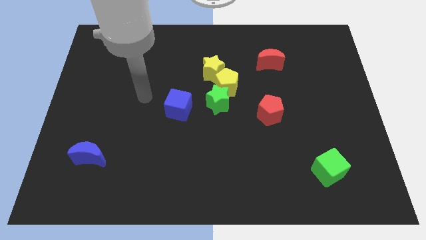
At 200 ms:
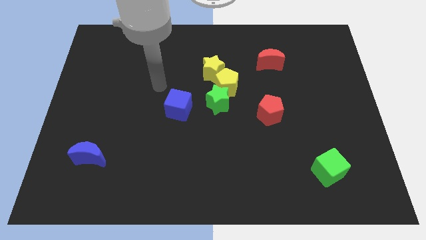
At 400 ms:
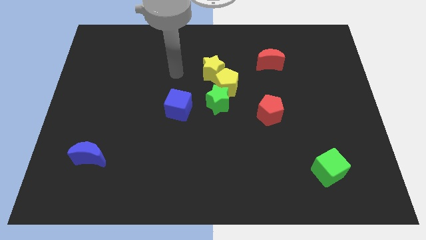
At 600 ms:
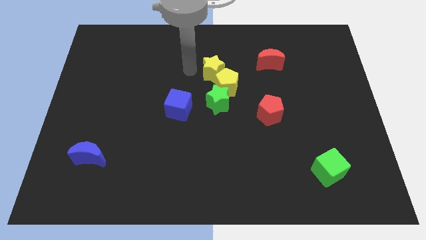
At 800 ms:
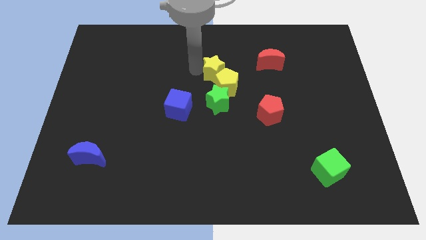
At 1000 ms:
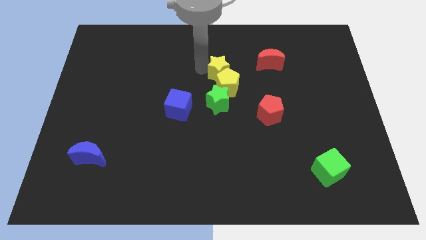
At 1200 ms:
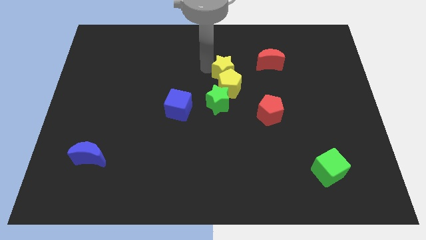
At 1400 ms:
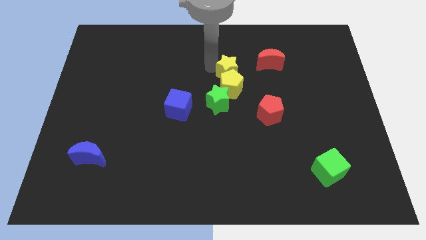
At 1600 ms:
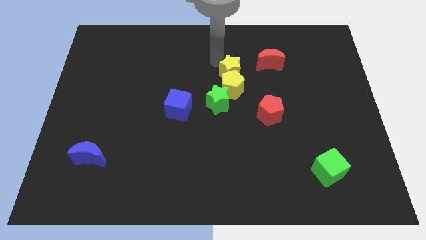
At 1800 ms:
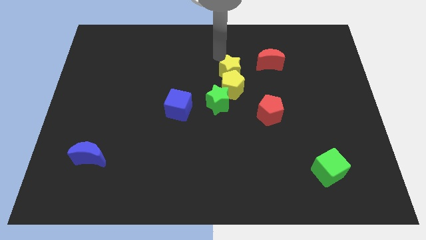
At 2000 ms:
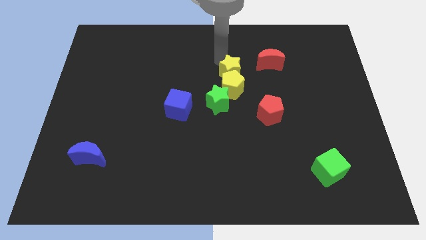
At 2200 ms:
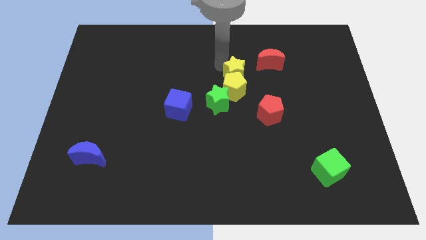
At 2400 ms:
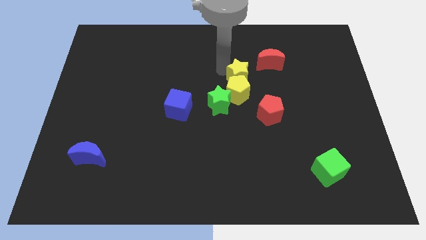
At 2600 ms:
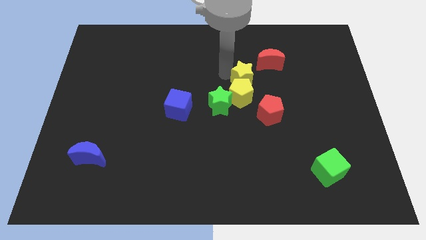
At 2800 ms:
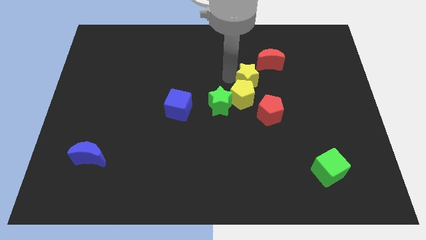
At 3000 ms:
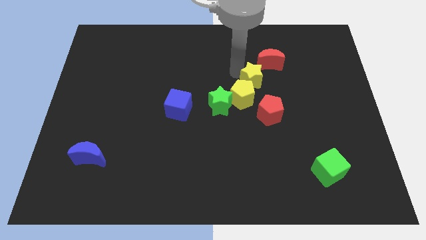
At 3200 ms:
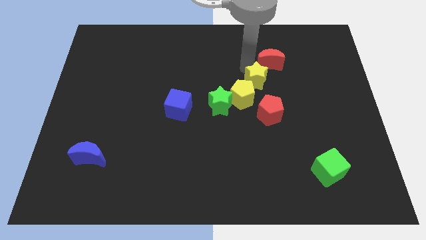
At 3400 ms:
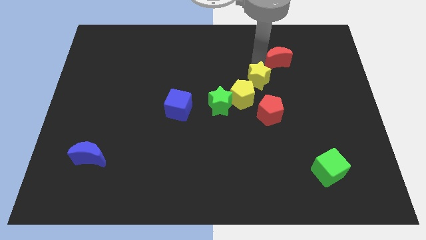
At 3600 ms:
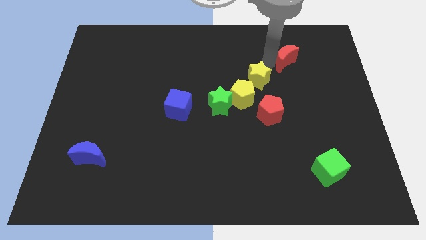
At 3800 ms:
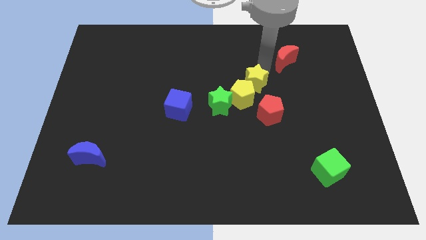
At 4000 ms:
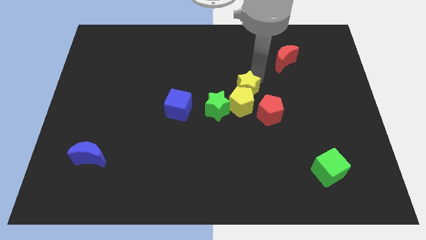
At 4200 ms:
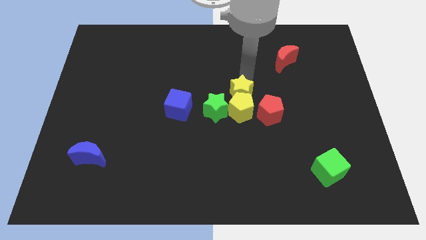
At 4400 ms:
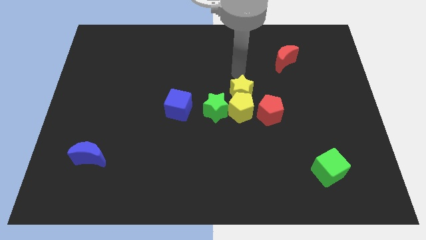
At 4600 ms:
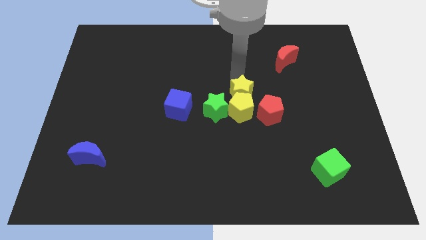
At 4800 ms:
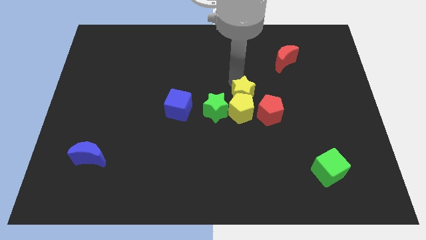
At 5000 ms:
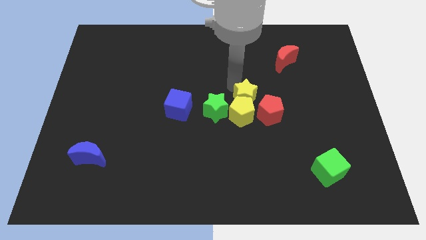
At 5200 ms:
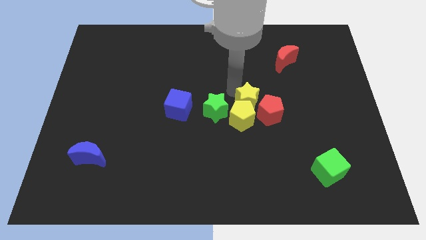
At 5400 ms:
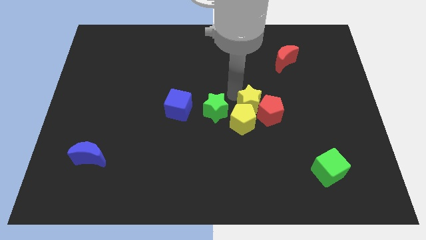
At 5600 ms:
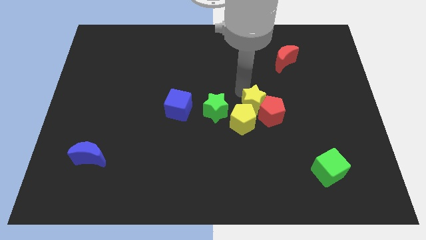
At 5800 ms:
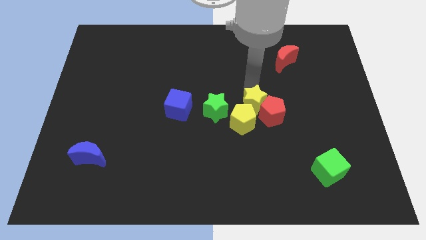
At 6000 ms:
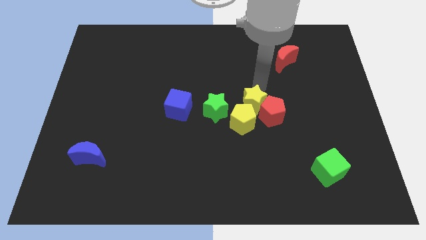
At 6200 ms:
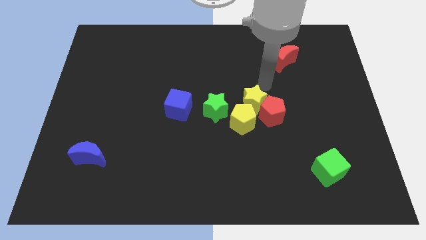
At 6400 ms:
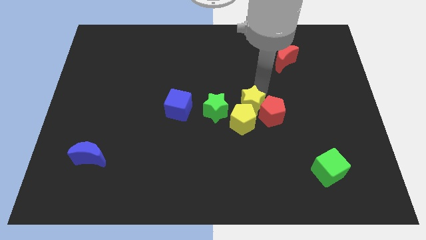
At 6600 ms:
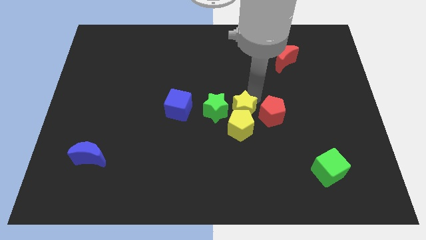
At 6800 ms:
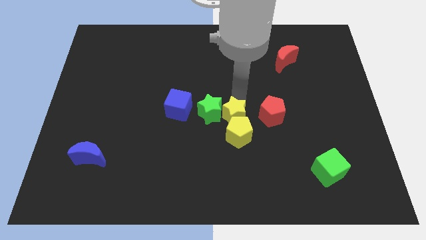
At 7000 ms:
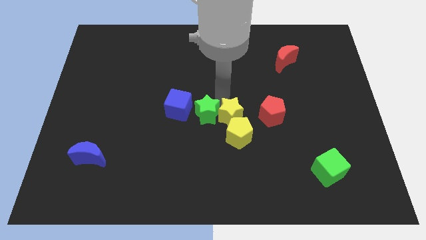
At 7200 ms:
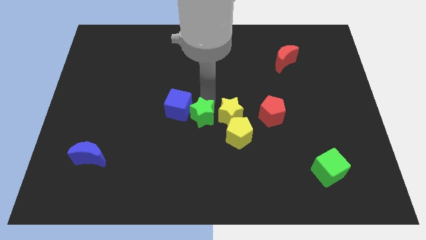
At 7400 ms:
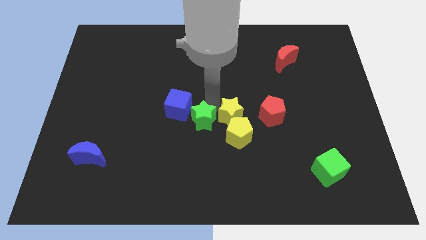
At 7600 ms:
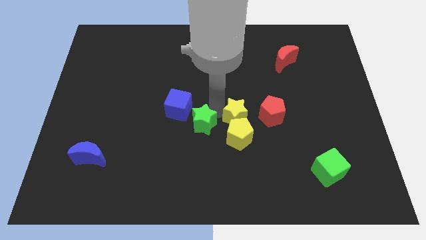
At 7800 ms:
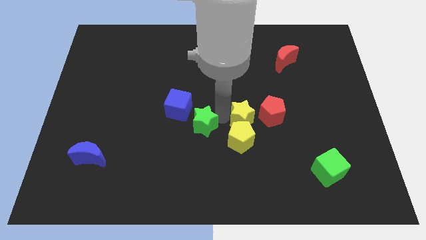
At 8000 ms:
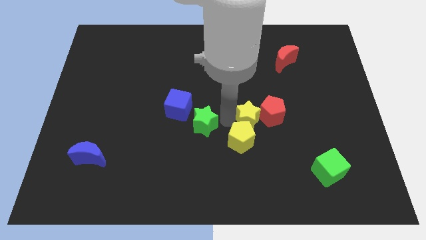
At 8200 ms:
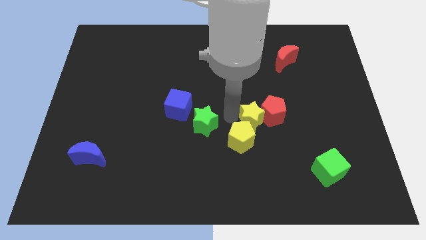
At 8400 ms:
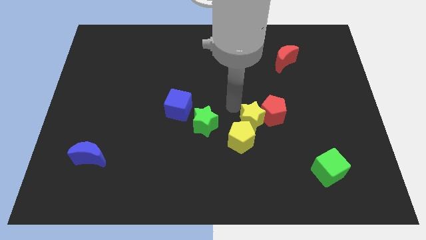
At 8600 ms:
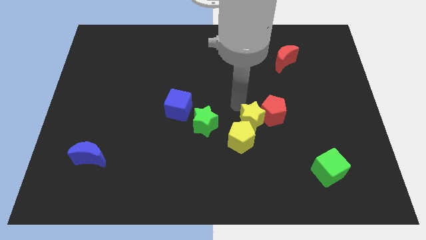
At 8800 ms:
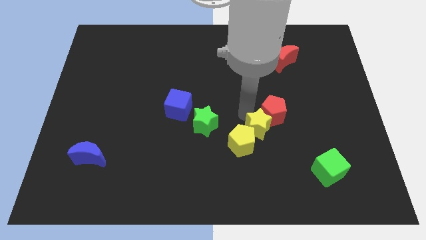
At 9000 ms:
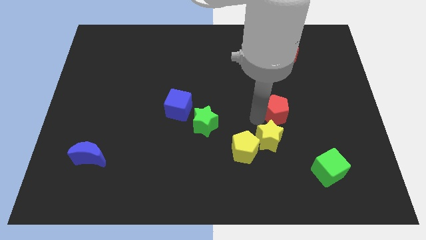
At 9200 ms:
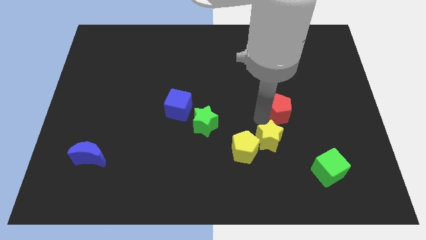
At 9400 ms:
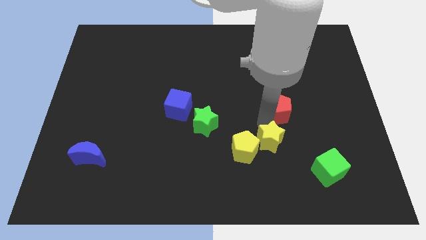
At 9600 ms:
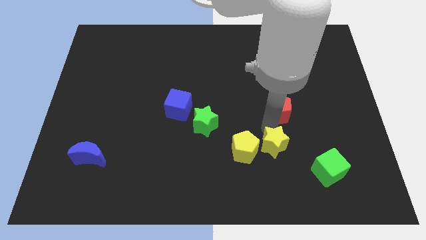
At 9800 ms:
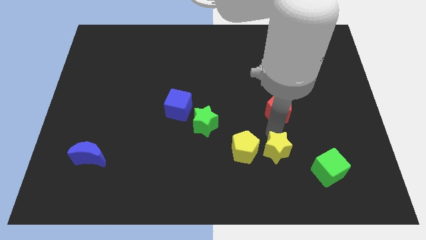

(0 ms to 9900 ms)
slide the yellow star to the left side of the green cube

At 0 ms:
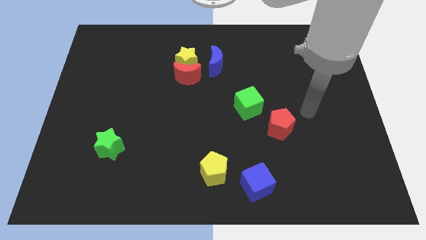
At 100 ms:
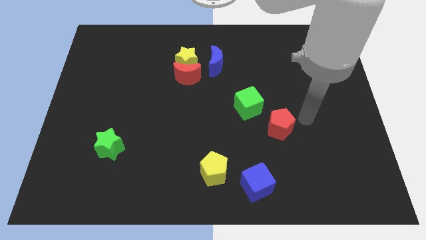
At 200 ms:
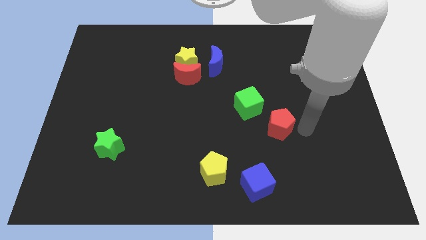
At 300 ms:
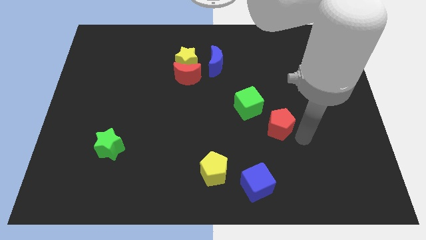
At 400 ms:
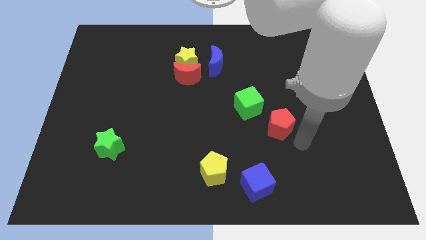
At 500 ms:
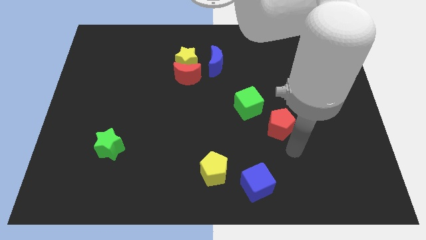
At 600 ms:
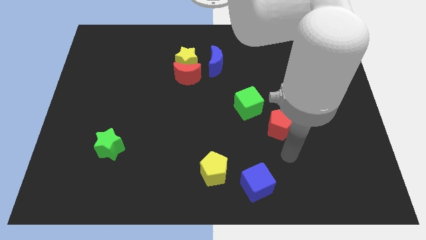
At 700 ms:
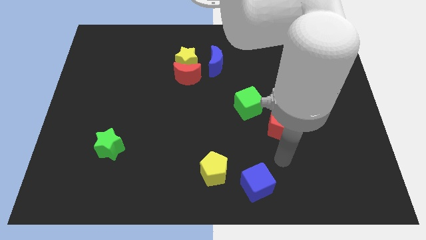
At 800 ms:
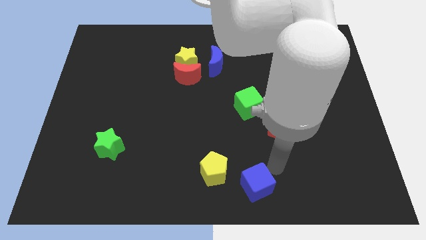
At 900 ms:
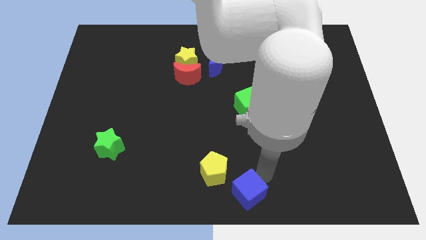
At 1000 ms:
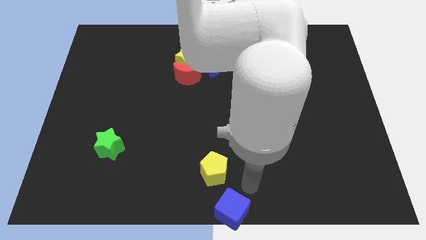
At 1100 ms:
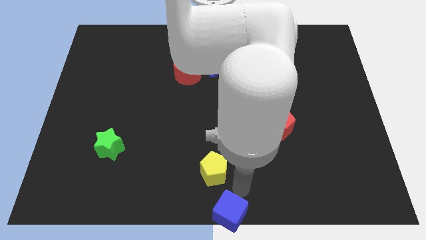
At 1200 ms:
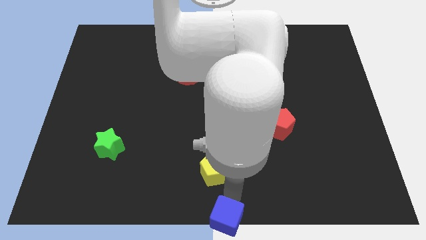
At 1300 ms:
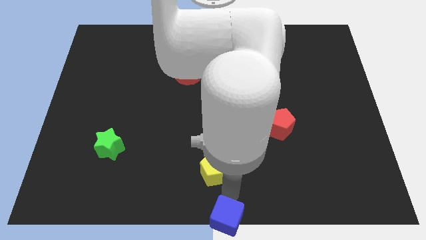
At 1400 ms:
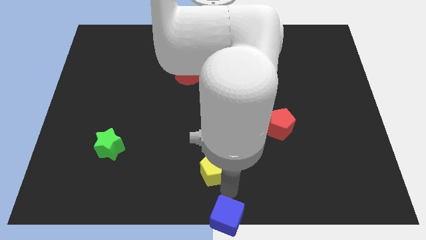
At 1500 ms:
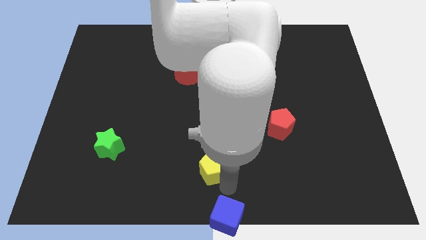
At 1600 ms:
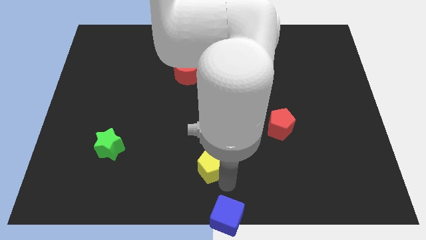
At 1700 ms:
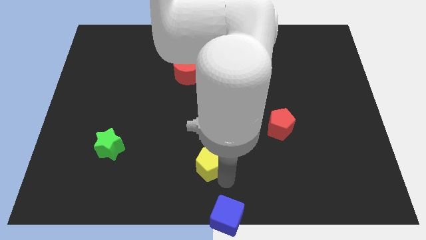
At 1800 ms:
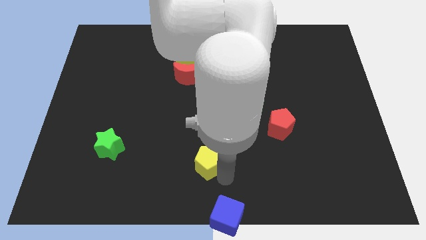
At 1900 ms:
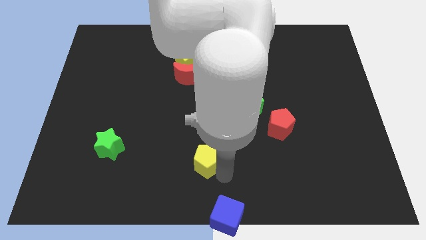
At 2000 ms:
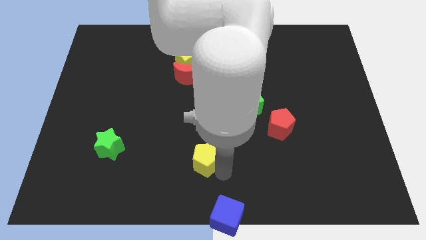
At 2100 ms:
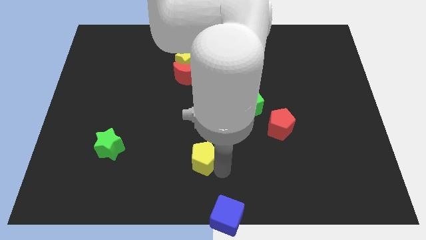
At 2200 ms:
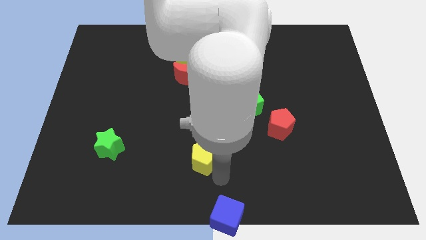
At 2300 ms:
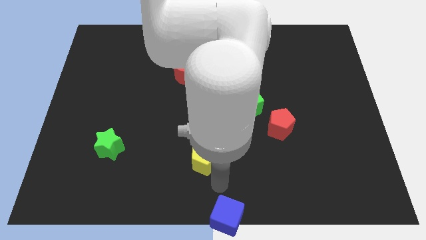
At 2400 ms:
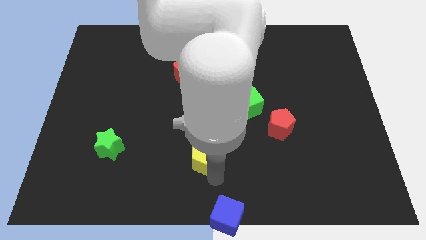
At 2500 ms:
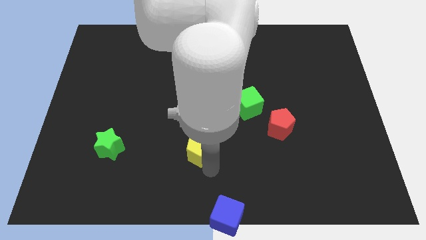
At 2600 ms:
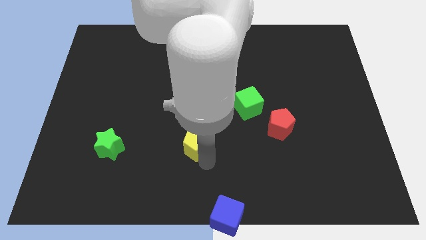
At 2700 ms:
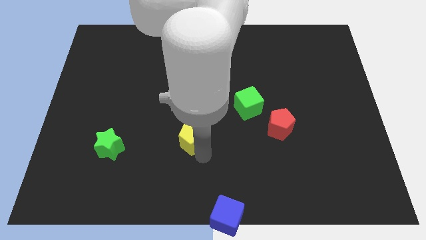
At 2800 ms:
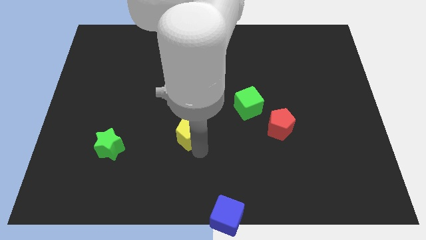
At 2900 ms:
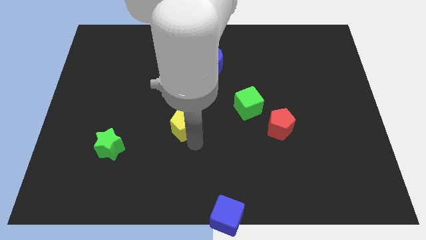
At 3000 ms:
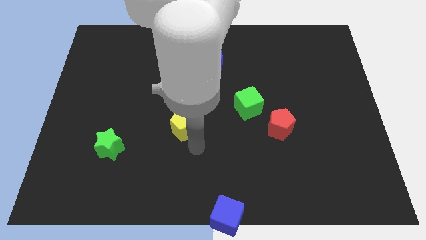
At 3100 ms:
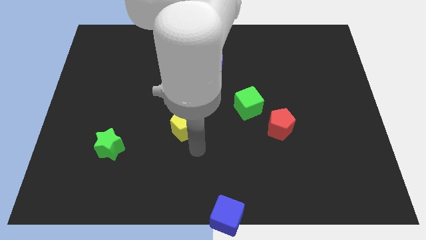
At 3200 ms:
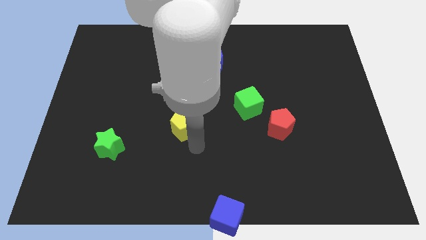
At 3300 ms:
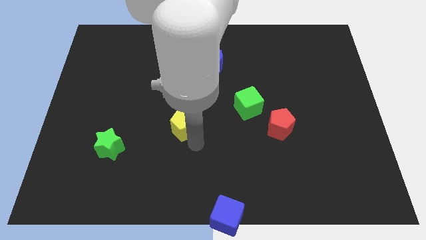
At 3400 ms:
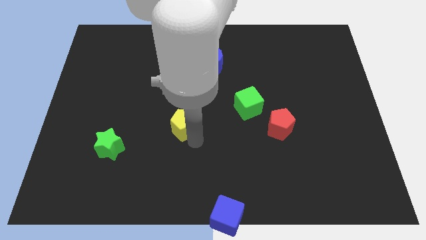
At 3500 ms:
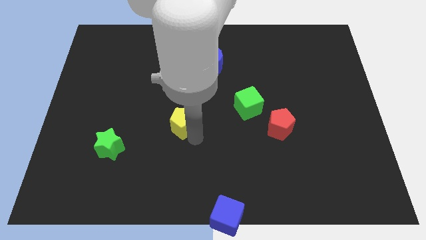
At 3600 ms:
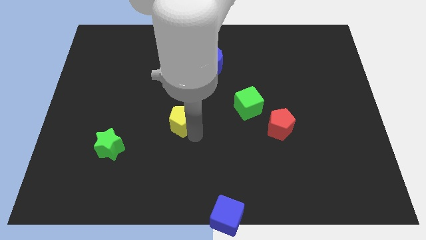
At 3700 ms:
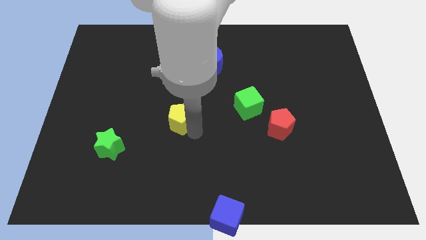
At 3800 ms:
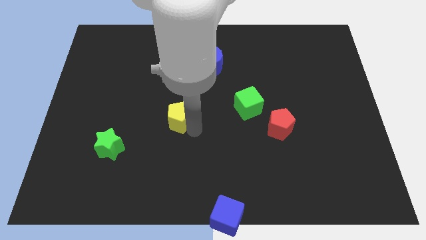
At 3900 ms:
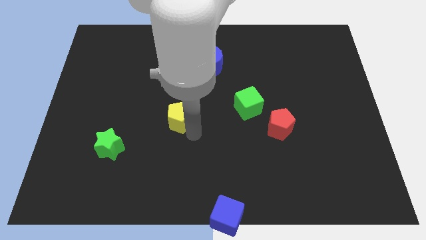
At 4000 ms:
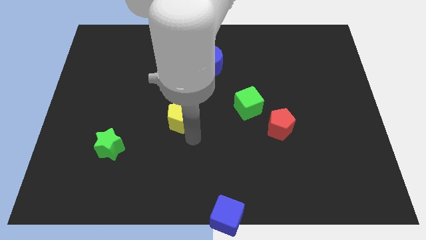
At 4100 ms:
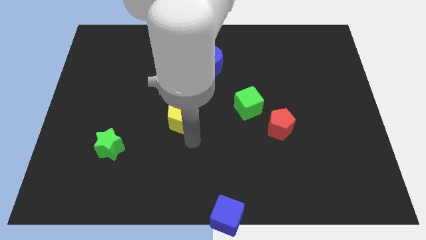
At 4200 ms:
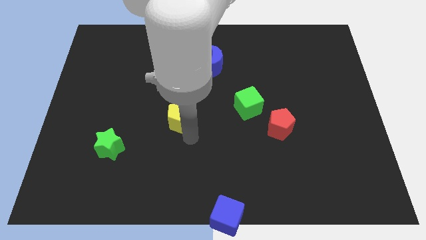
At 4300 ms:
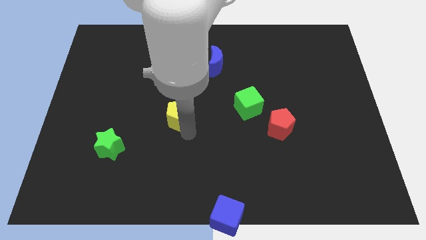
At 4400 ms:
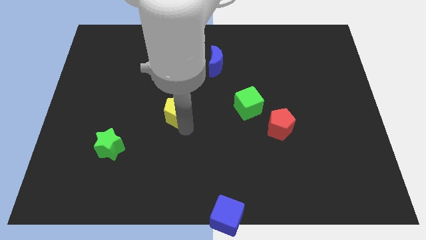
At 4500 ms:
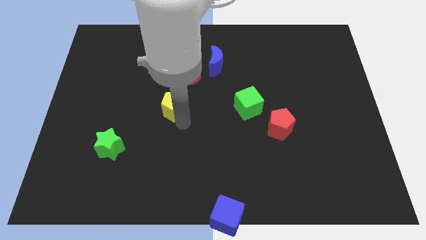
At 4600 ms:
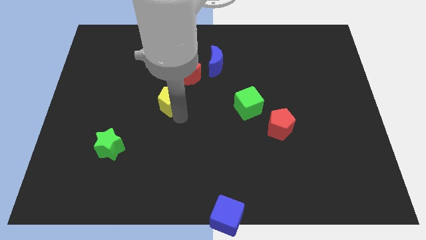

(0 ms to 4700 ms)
slide the yellow pentagon diagonally down and to the left of the red moon
